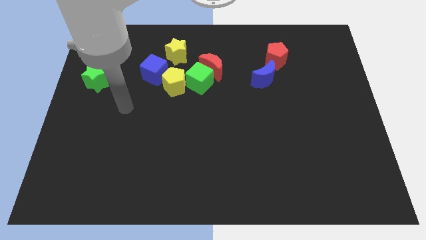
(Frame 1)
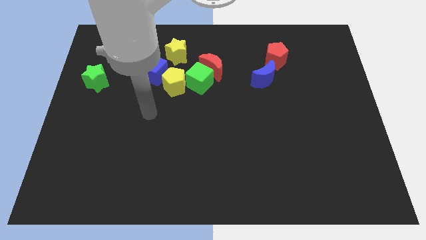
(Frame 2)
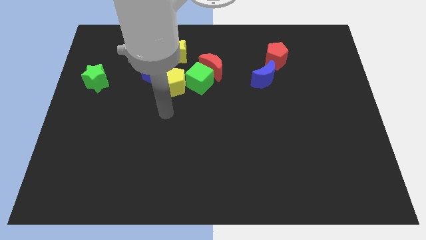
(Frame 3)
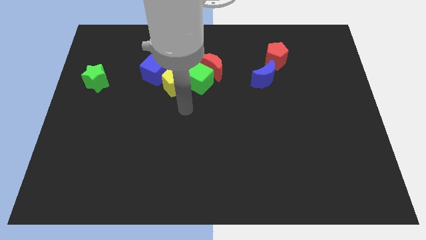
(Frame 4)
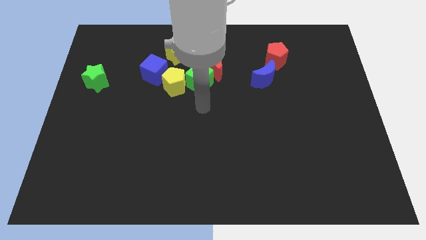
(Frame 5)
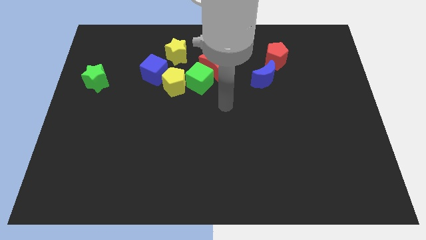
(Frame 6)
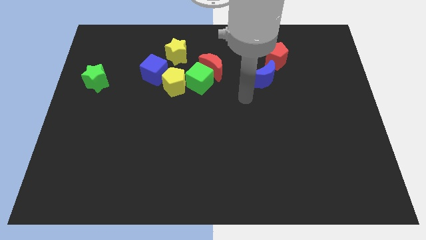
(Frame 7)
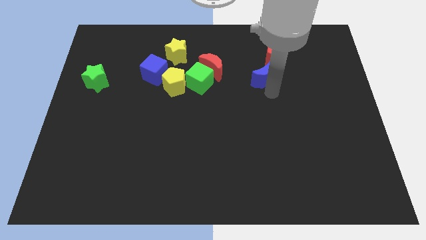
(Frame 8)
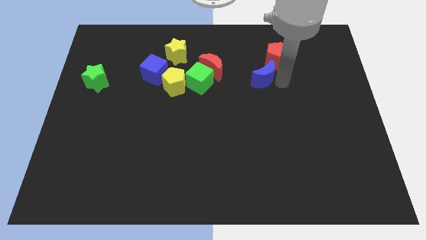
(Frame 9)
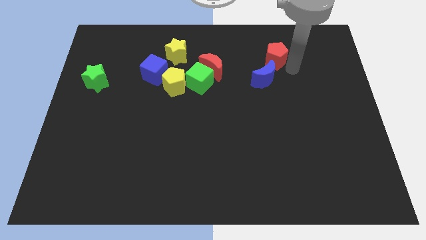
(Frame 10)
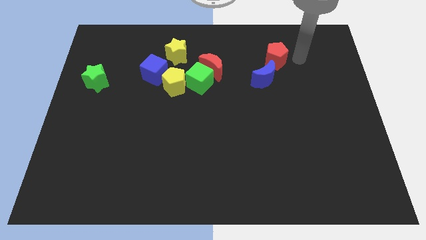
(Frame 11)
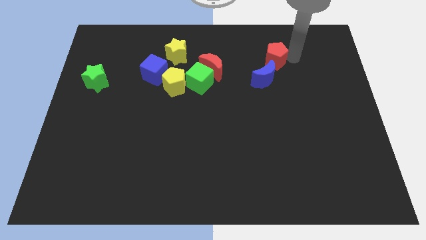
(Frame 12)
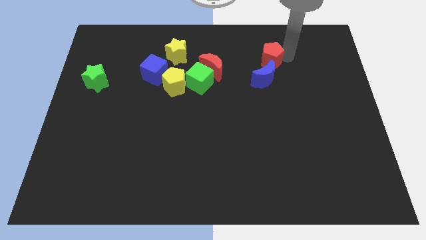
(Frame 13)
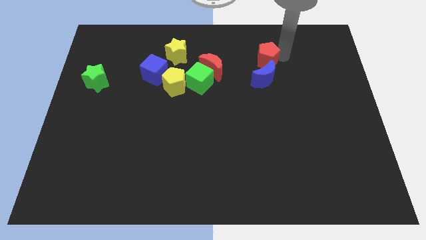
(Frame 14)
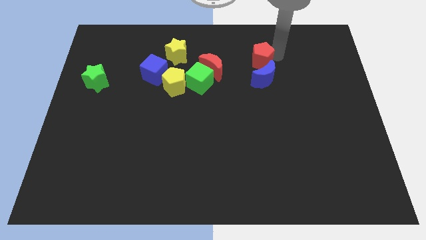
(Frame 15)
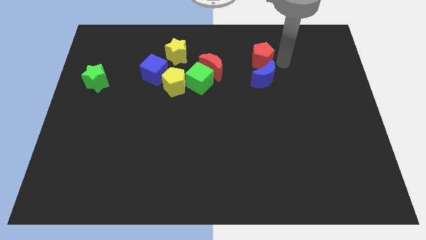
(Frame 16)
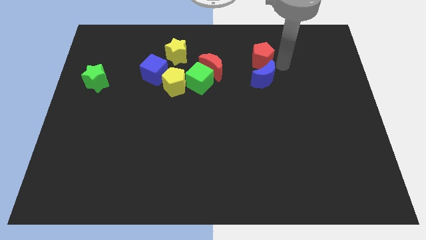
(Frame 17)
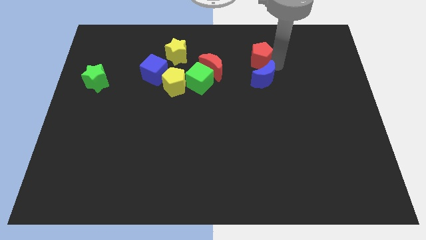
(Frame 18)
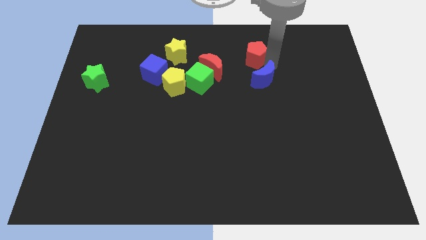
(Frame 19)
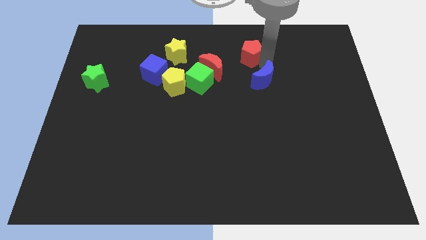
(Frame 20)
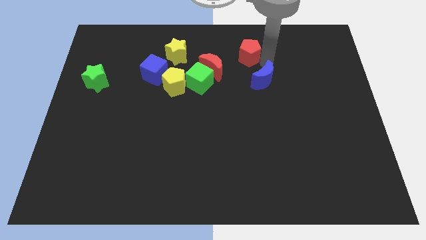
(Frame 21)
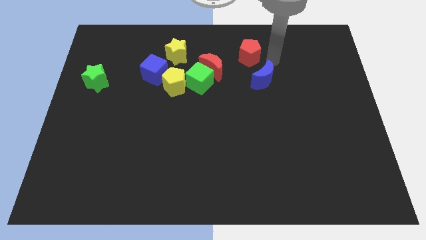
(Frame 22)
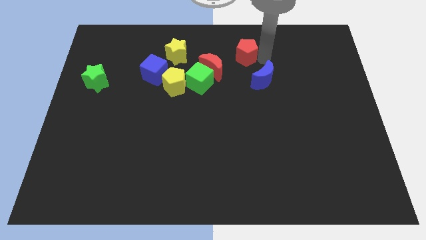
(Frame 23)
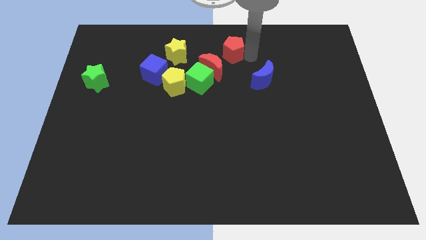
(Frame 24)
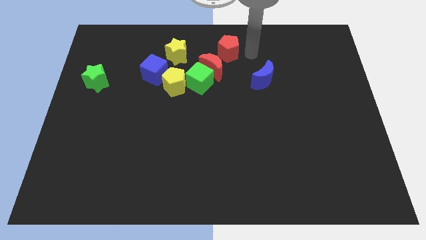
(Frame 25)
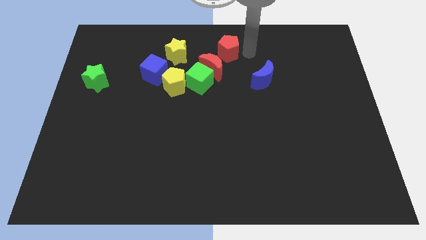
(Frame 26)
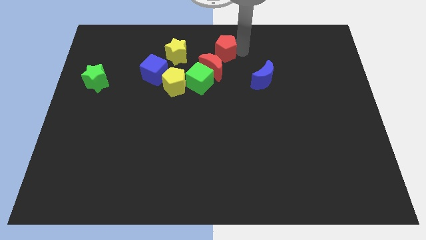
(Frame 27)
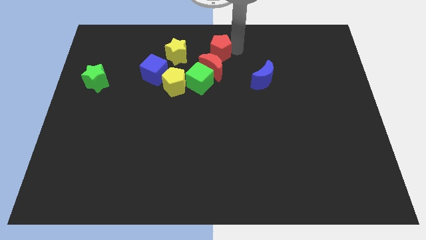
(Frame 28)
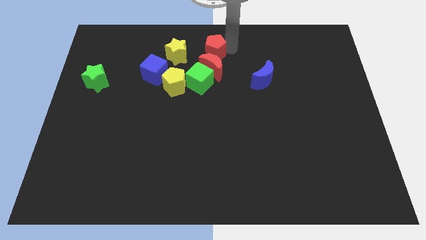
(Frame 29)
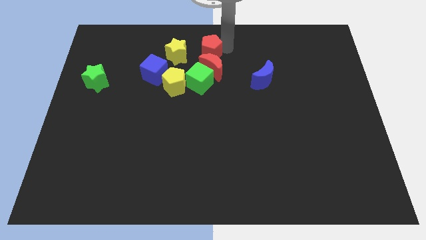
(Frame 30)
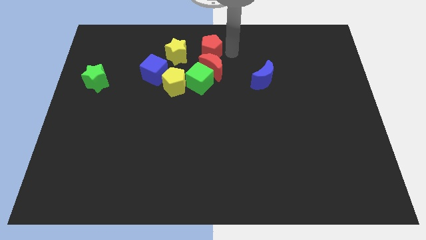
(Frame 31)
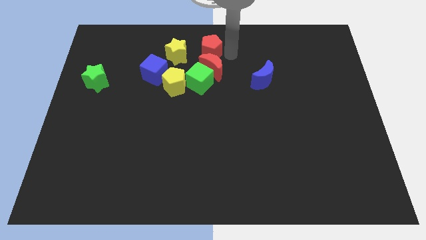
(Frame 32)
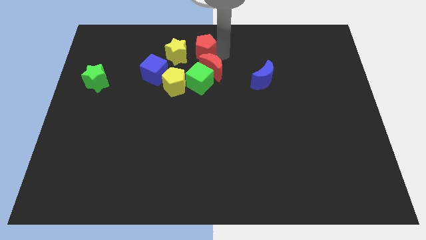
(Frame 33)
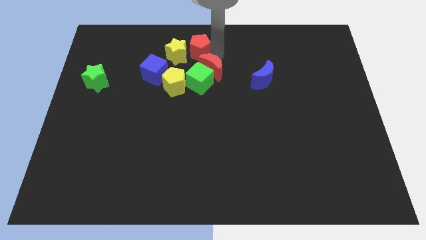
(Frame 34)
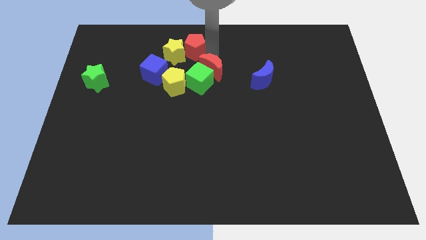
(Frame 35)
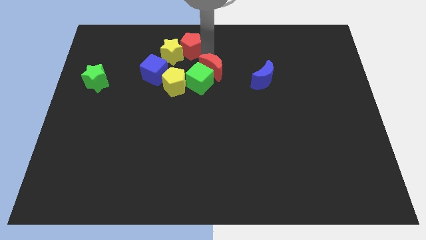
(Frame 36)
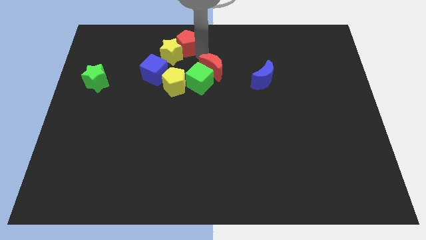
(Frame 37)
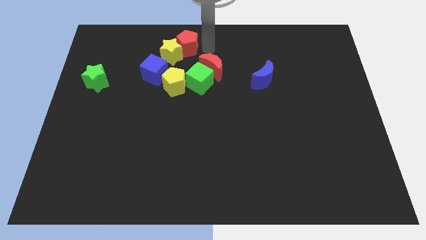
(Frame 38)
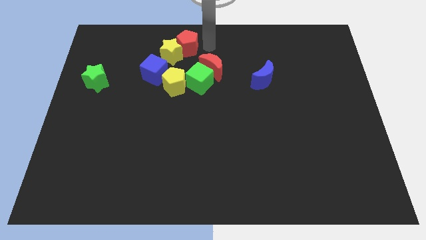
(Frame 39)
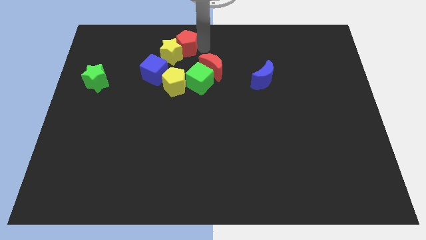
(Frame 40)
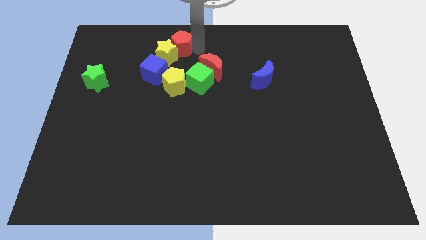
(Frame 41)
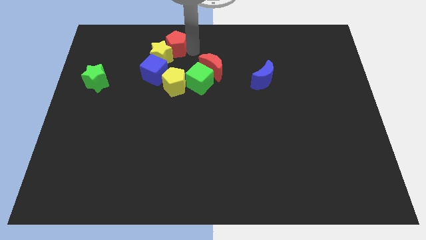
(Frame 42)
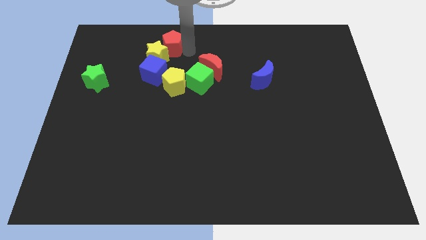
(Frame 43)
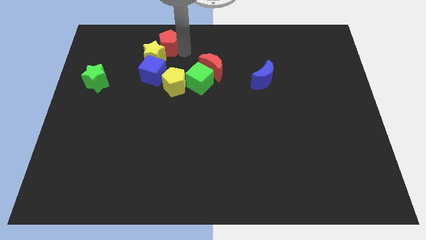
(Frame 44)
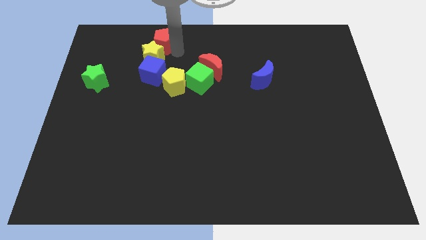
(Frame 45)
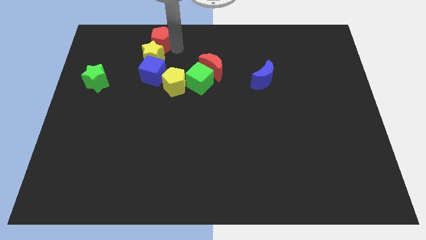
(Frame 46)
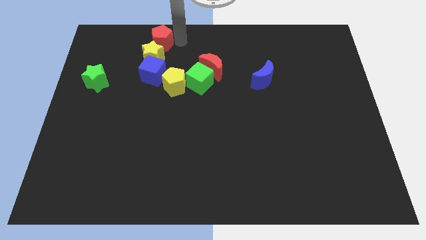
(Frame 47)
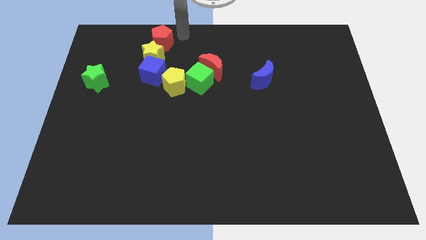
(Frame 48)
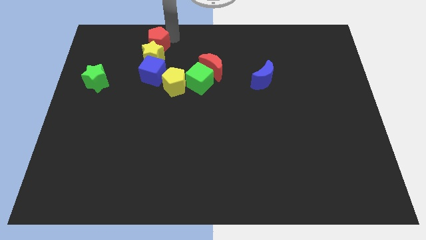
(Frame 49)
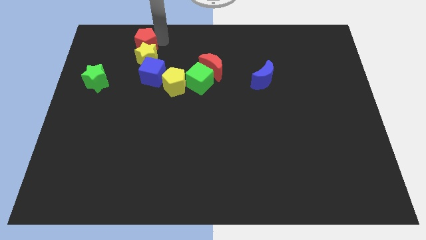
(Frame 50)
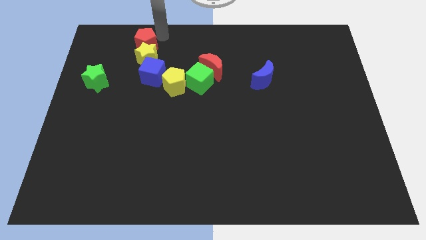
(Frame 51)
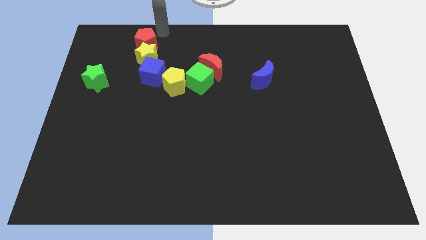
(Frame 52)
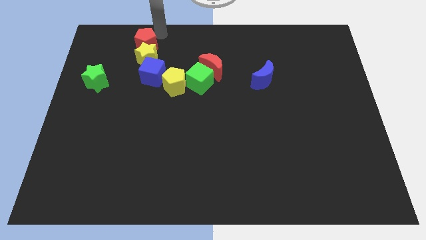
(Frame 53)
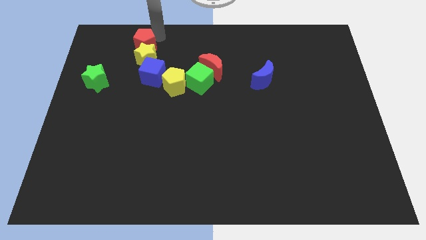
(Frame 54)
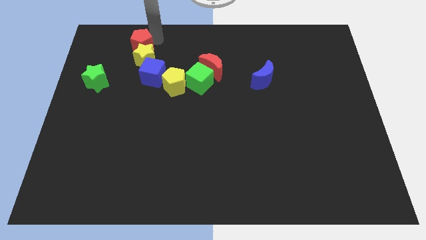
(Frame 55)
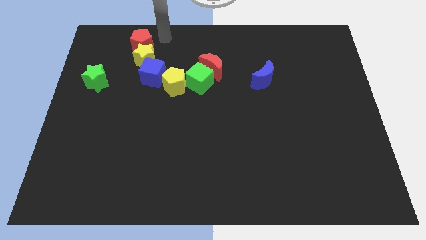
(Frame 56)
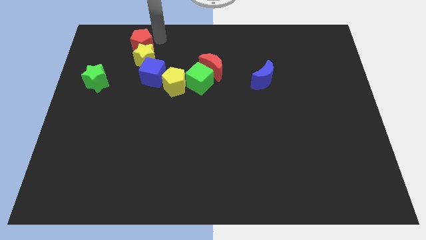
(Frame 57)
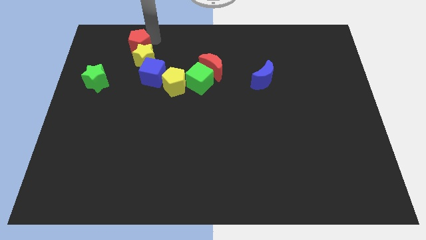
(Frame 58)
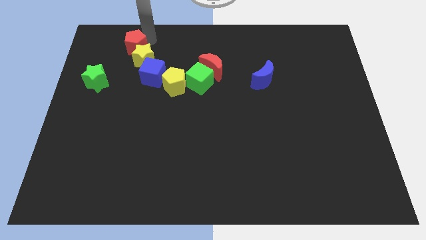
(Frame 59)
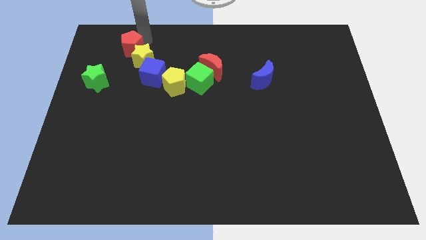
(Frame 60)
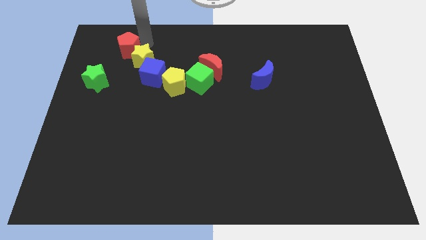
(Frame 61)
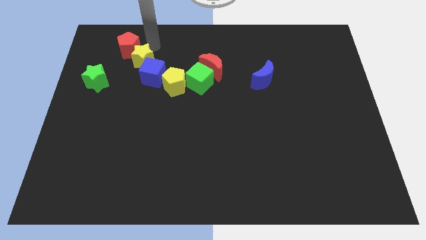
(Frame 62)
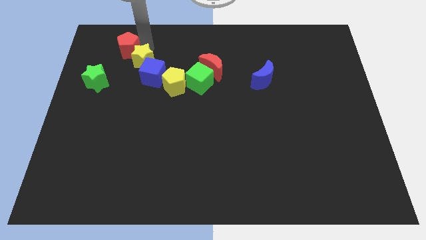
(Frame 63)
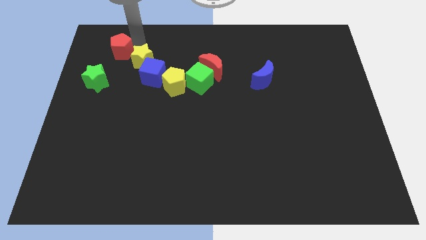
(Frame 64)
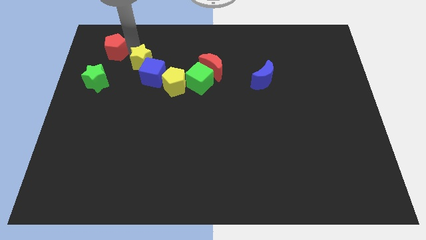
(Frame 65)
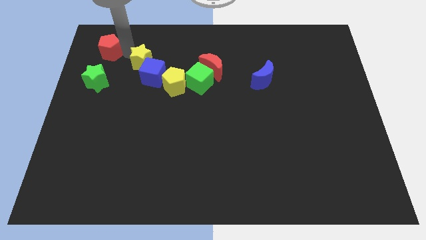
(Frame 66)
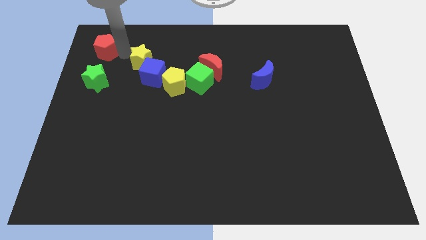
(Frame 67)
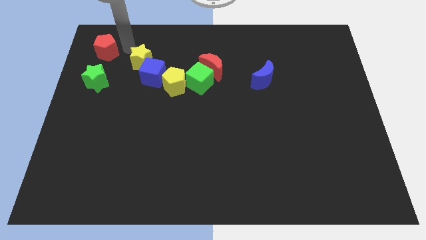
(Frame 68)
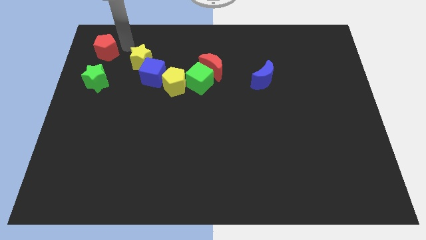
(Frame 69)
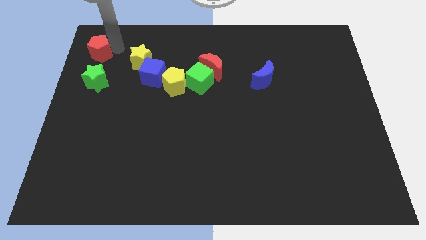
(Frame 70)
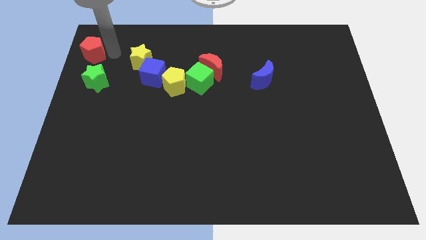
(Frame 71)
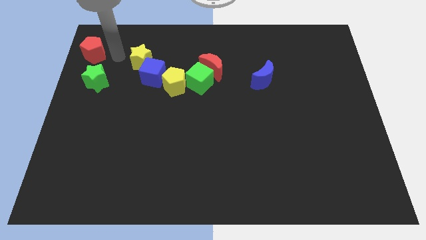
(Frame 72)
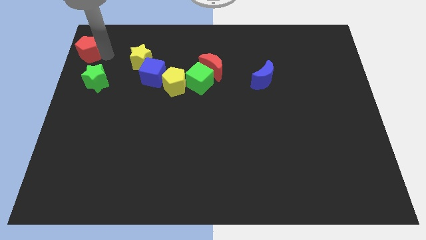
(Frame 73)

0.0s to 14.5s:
push the red pentagon to the top left of the board
